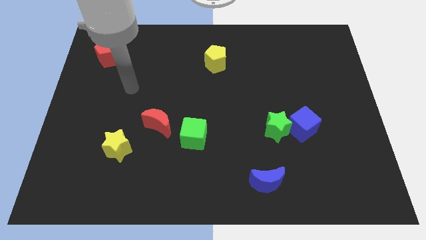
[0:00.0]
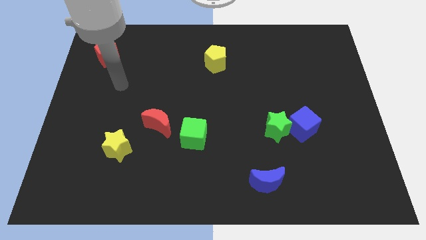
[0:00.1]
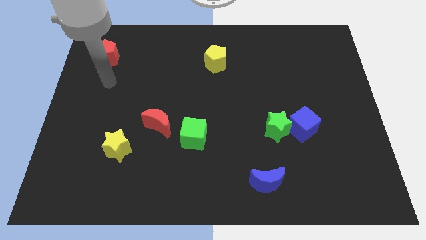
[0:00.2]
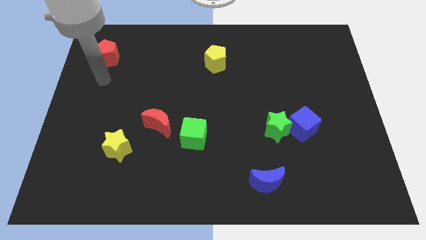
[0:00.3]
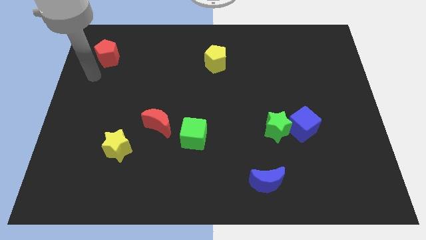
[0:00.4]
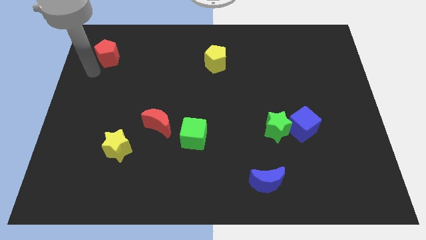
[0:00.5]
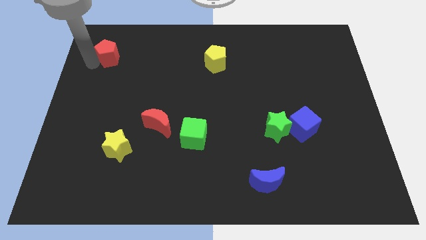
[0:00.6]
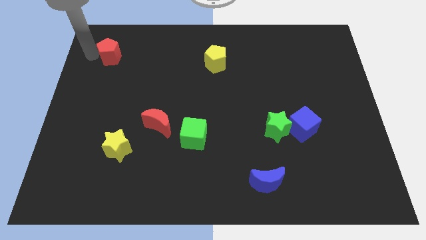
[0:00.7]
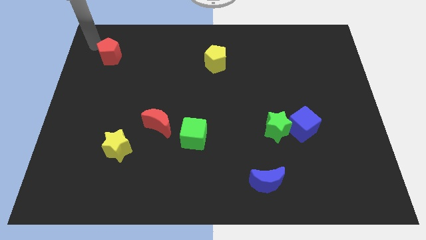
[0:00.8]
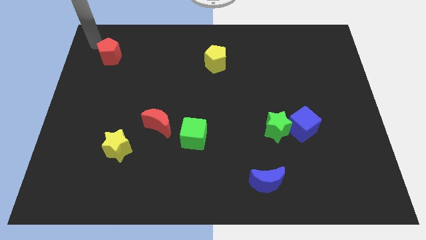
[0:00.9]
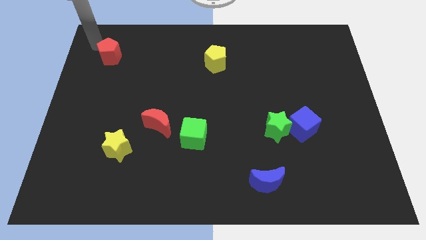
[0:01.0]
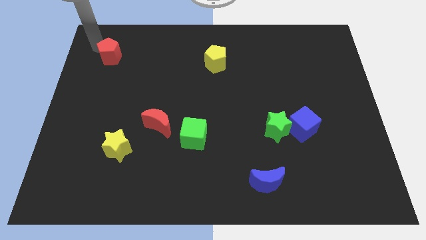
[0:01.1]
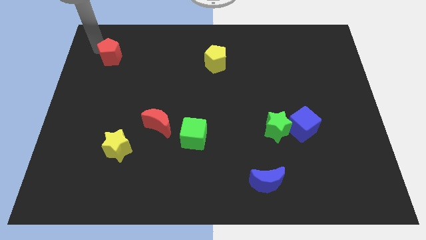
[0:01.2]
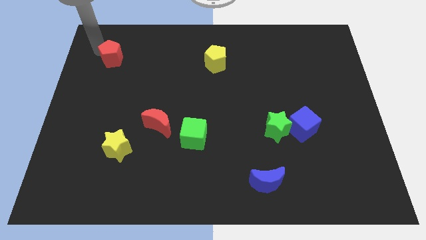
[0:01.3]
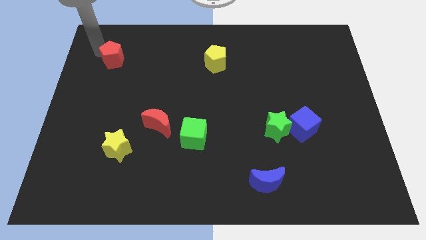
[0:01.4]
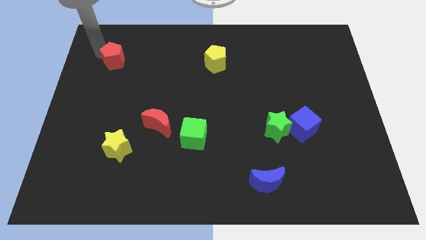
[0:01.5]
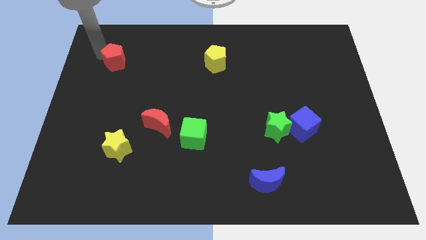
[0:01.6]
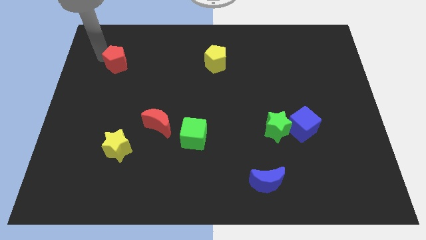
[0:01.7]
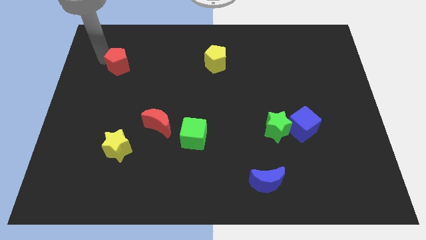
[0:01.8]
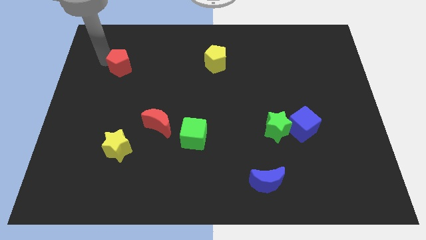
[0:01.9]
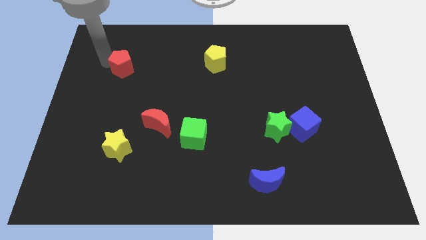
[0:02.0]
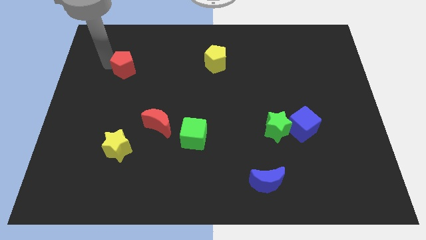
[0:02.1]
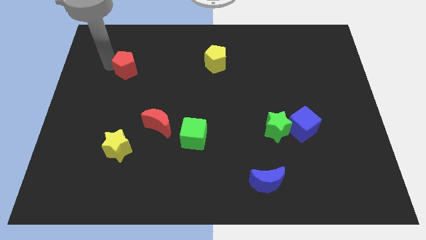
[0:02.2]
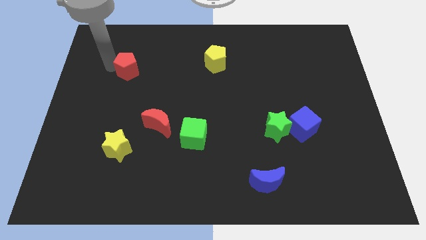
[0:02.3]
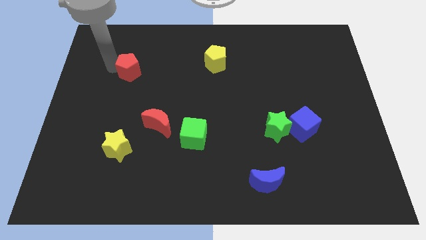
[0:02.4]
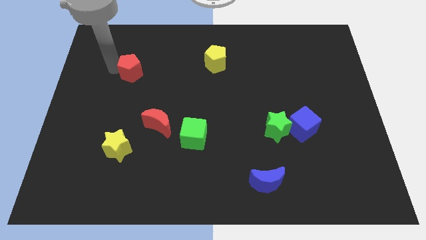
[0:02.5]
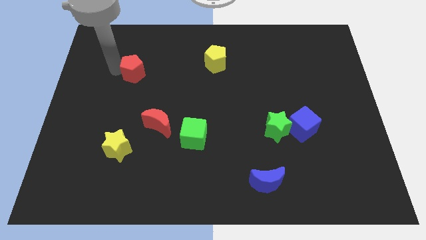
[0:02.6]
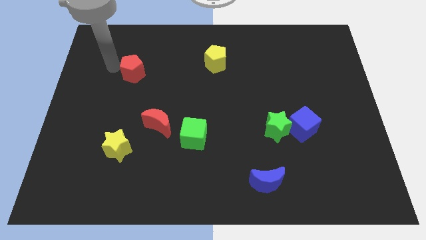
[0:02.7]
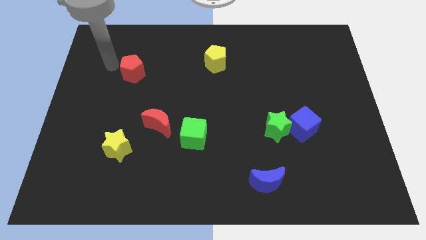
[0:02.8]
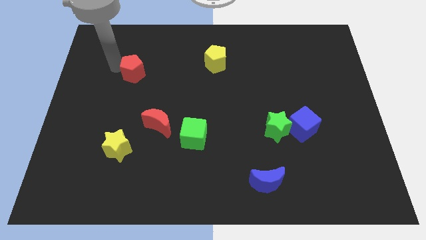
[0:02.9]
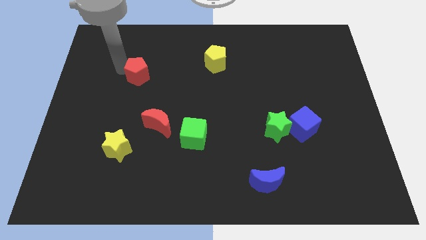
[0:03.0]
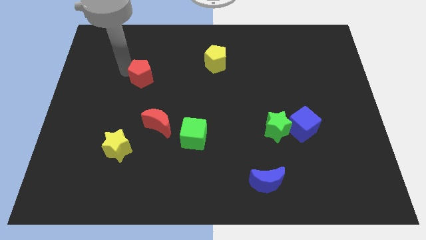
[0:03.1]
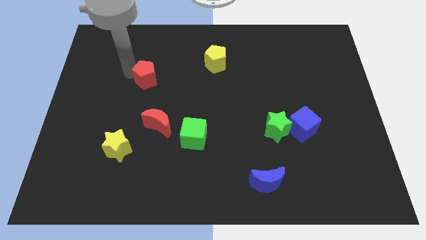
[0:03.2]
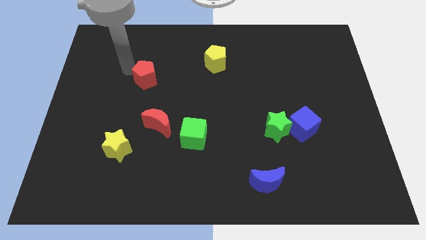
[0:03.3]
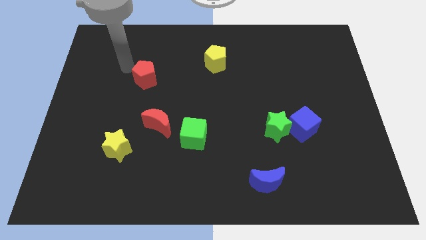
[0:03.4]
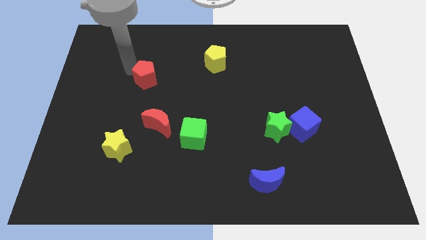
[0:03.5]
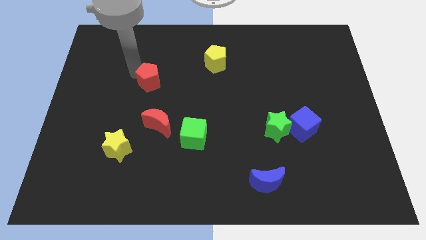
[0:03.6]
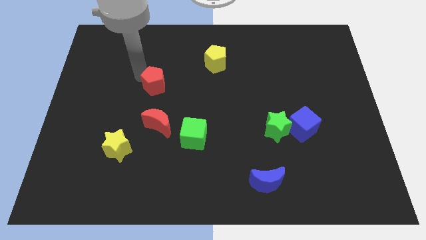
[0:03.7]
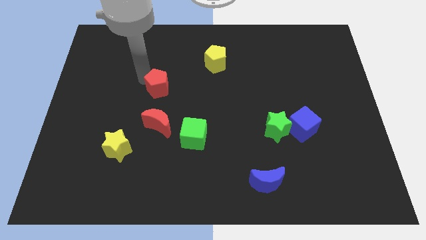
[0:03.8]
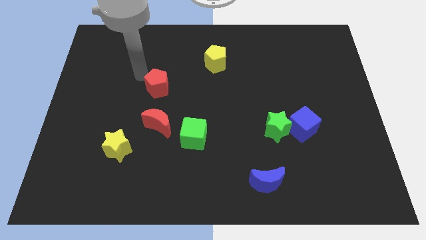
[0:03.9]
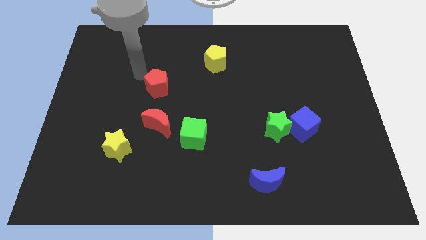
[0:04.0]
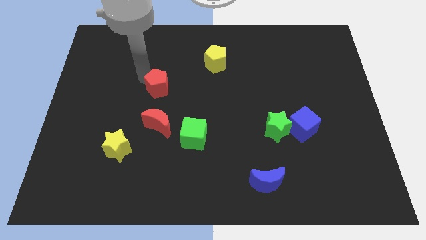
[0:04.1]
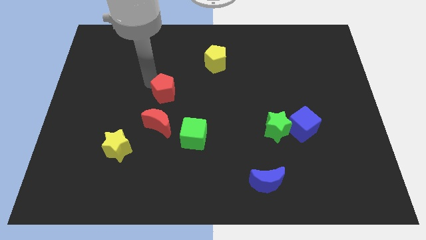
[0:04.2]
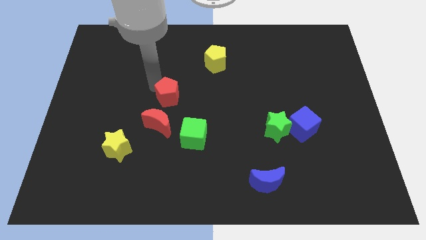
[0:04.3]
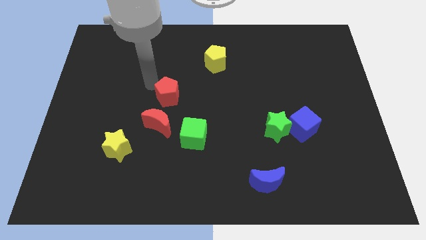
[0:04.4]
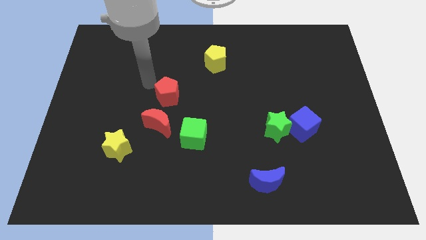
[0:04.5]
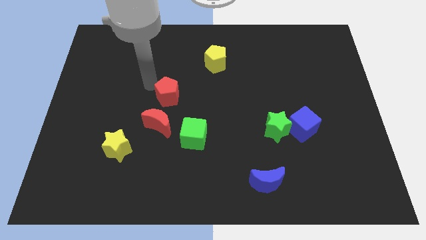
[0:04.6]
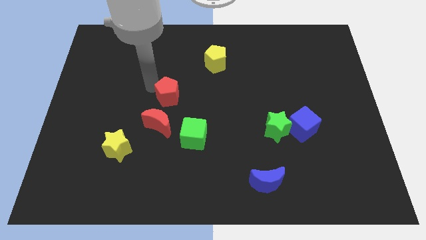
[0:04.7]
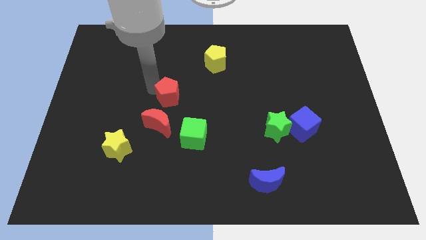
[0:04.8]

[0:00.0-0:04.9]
move the red pentagon to the top right of the red moon

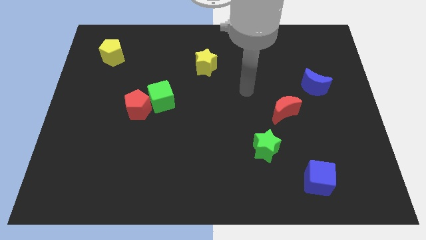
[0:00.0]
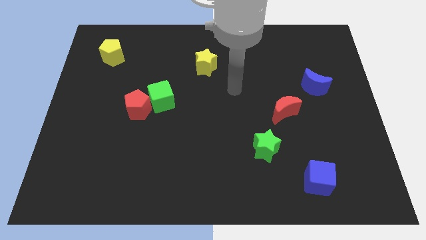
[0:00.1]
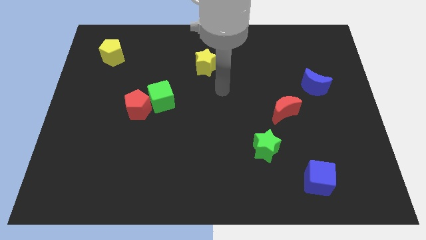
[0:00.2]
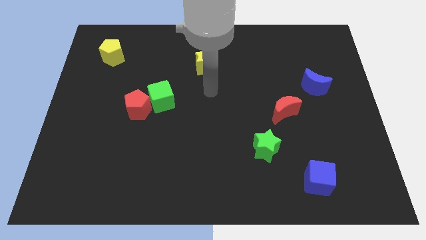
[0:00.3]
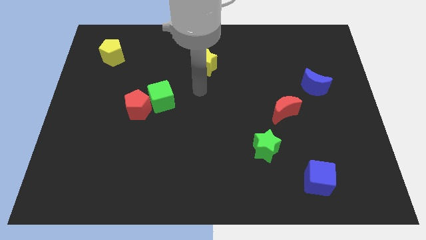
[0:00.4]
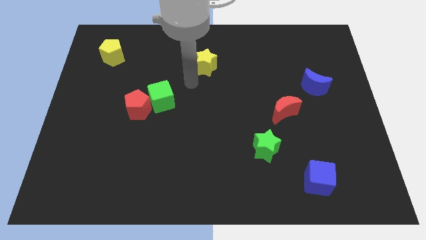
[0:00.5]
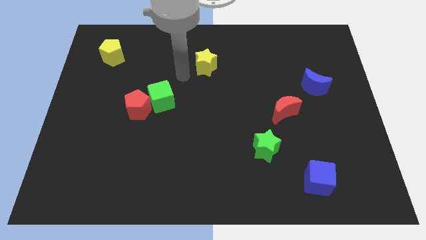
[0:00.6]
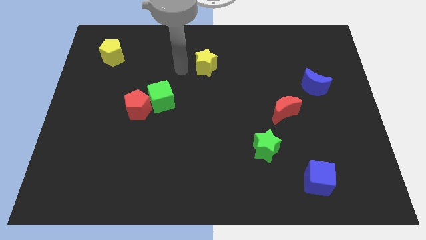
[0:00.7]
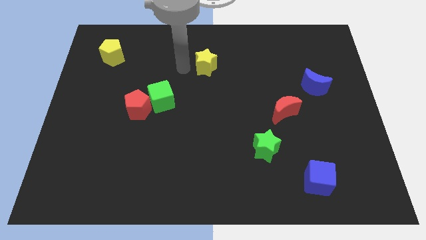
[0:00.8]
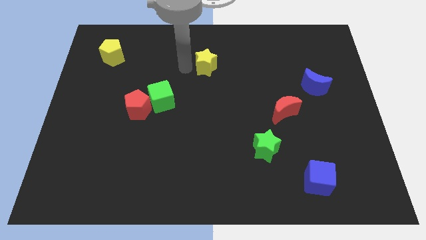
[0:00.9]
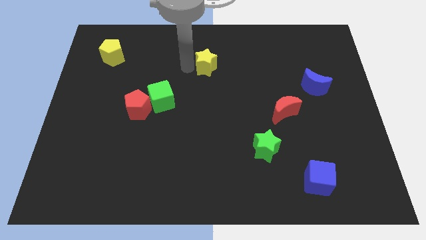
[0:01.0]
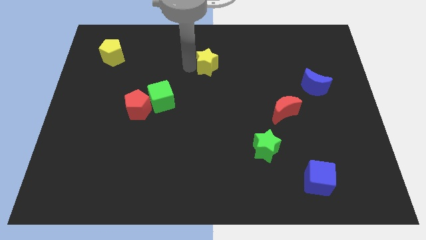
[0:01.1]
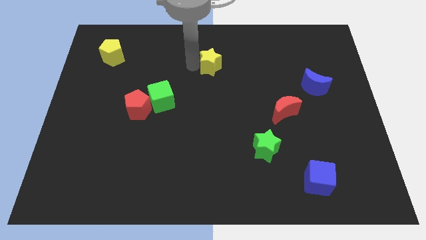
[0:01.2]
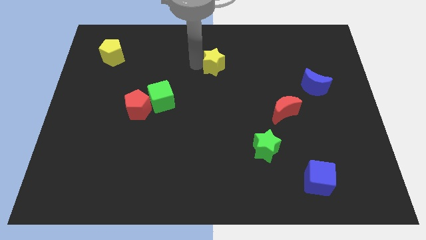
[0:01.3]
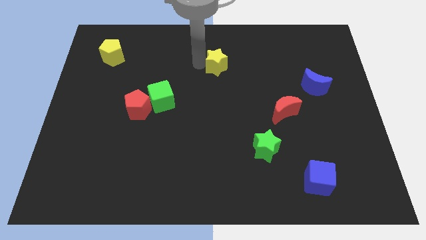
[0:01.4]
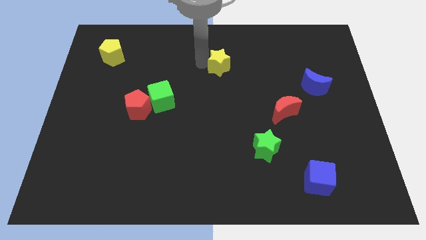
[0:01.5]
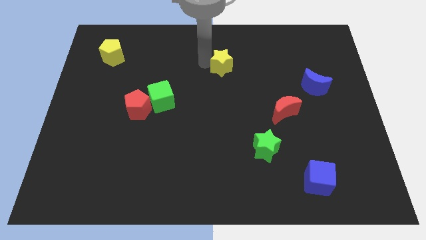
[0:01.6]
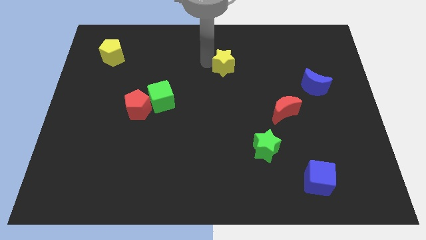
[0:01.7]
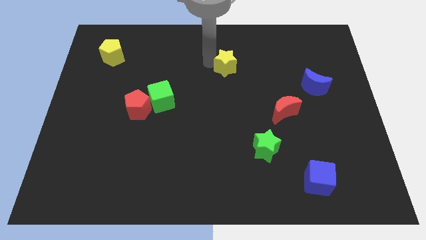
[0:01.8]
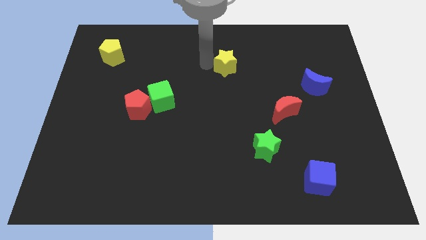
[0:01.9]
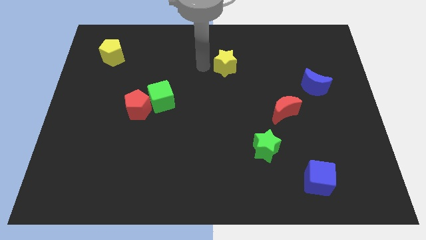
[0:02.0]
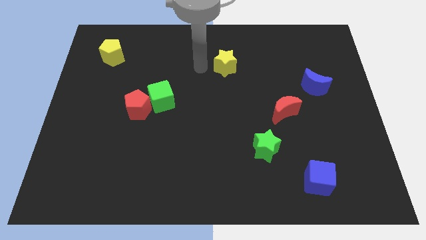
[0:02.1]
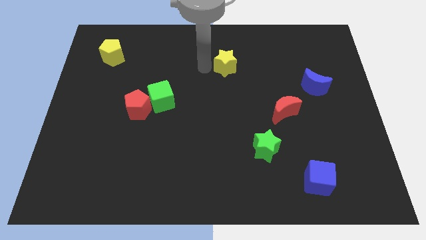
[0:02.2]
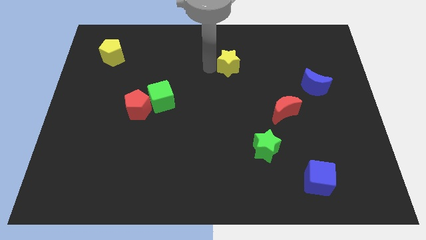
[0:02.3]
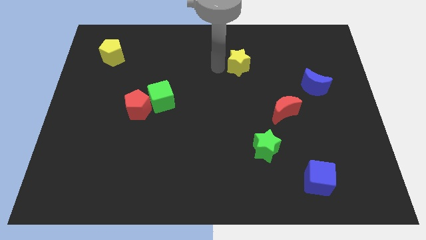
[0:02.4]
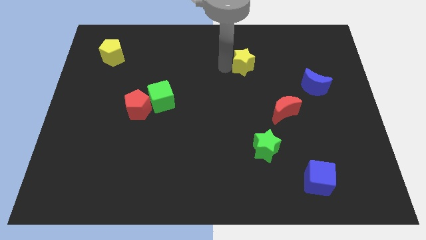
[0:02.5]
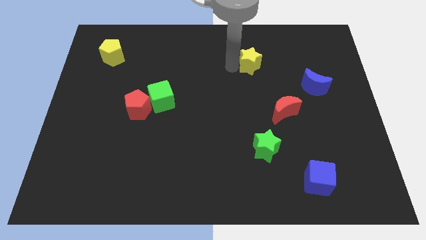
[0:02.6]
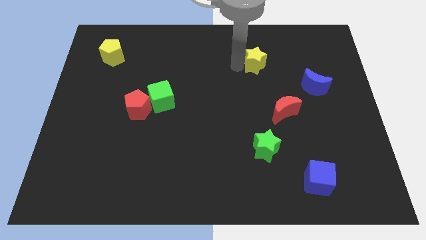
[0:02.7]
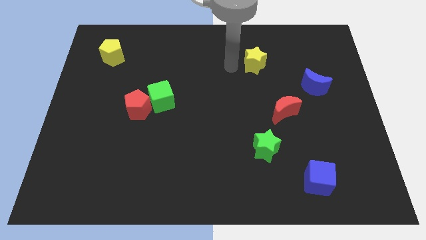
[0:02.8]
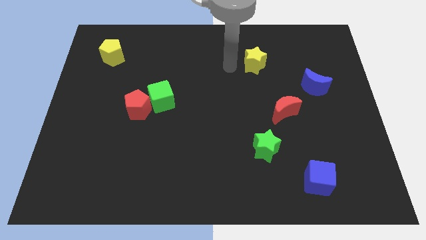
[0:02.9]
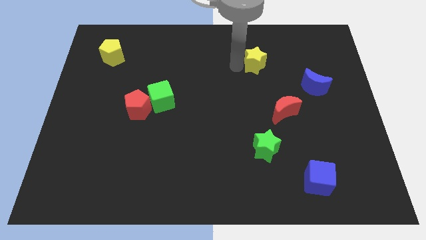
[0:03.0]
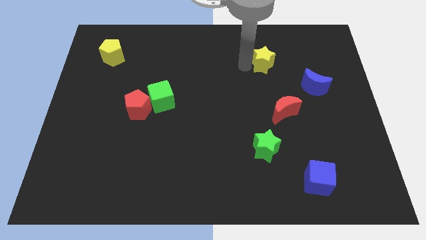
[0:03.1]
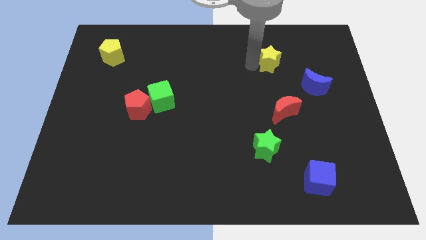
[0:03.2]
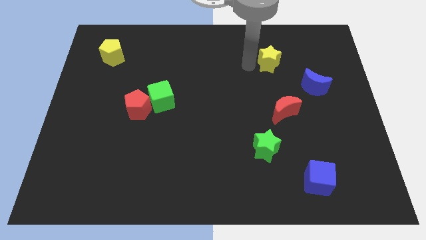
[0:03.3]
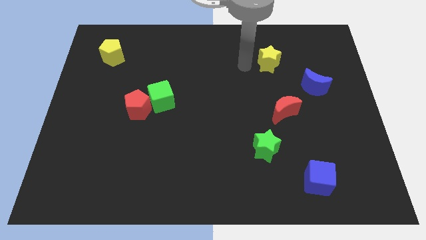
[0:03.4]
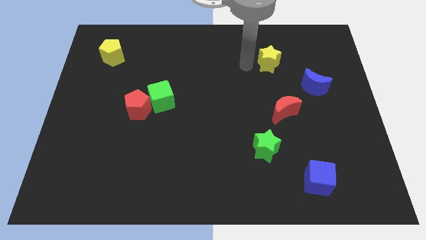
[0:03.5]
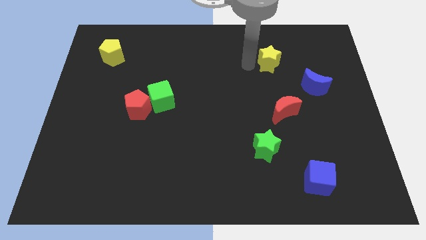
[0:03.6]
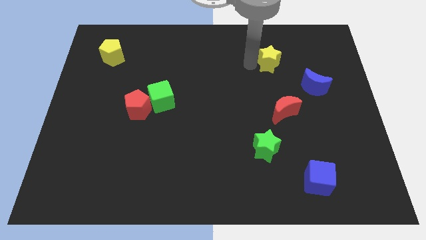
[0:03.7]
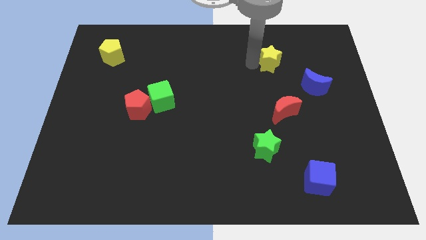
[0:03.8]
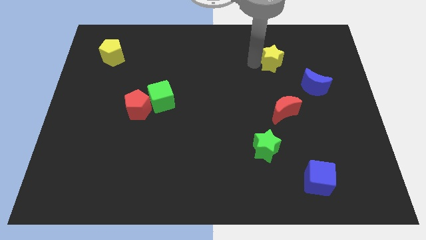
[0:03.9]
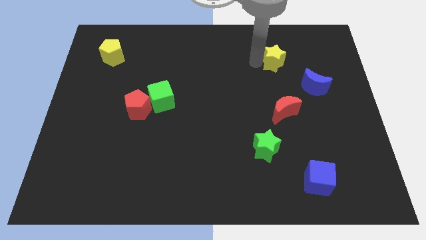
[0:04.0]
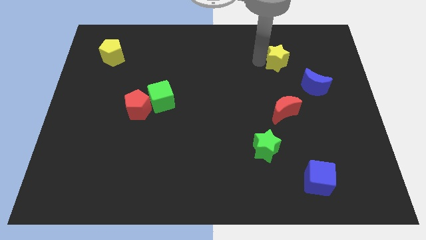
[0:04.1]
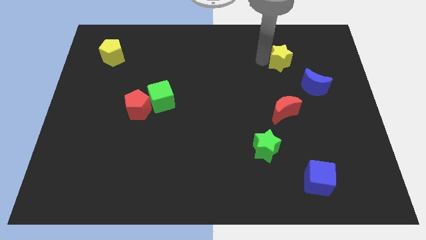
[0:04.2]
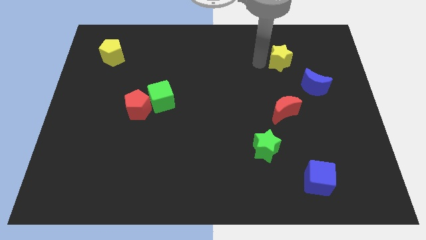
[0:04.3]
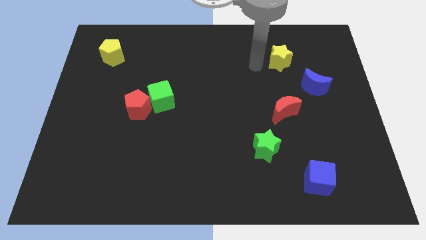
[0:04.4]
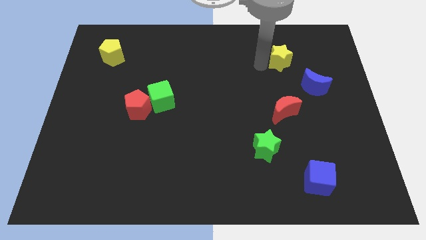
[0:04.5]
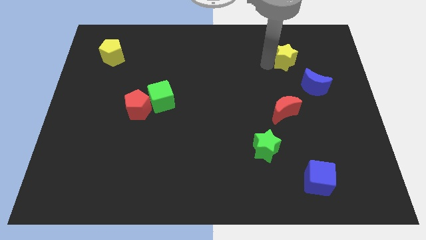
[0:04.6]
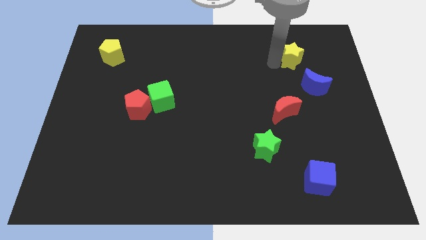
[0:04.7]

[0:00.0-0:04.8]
slide the yellow star to the top side of the blue moon
